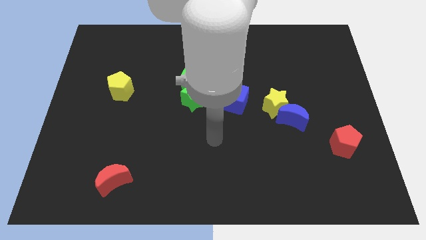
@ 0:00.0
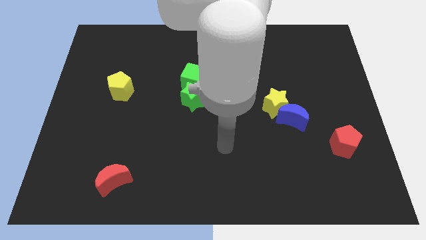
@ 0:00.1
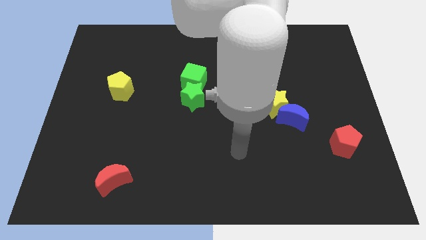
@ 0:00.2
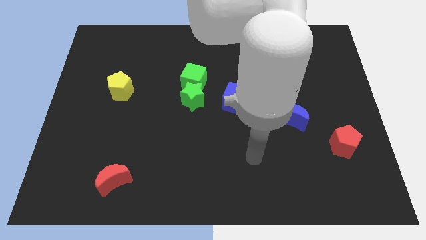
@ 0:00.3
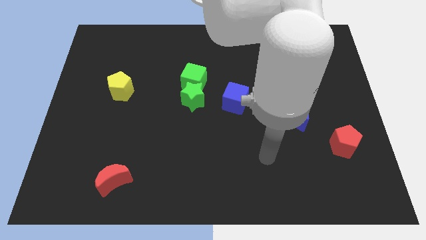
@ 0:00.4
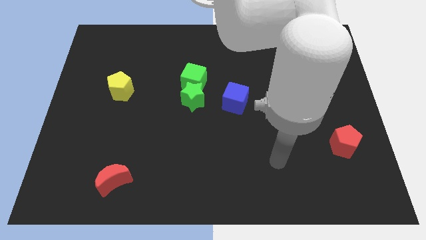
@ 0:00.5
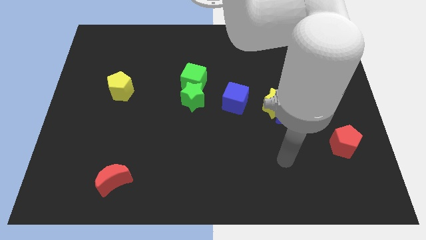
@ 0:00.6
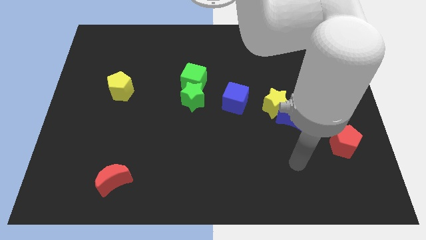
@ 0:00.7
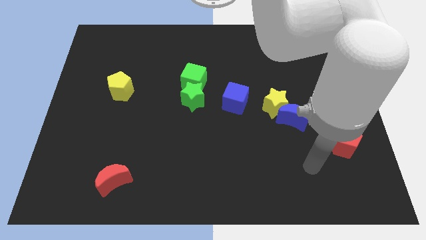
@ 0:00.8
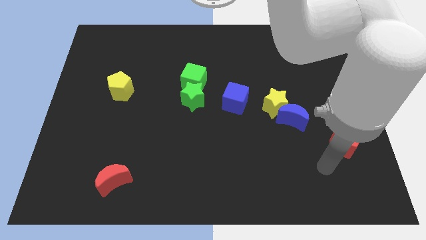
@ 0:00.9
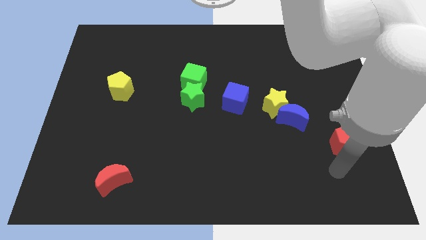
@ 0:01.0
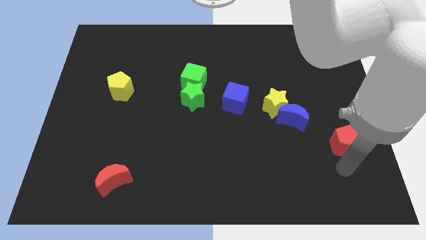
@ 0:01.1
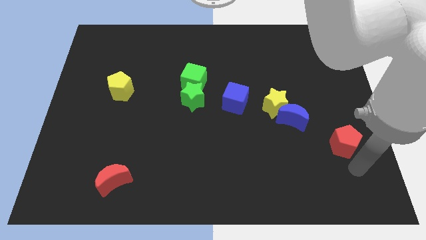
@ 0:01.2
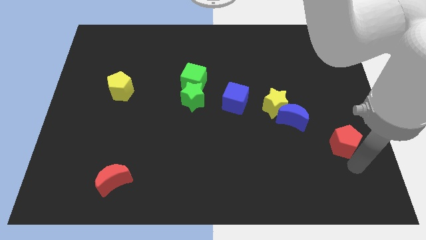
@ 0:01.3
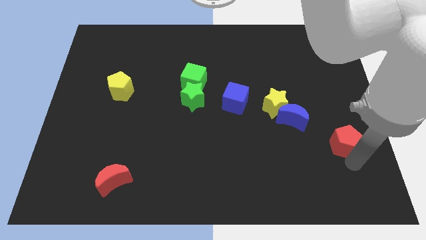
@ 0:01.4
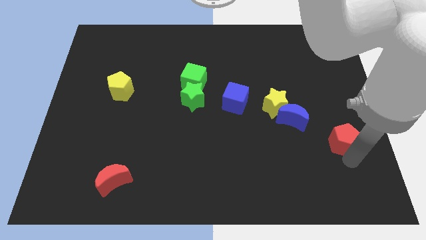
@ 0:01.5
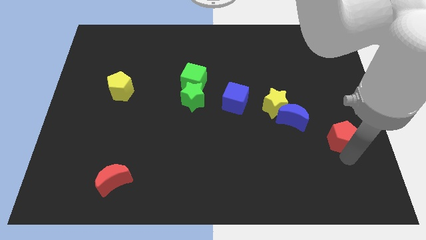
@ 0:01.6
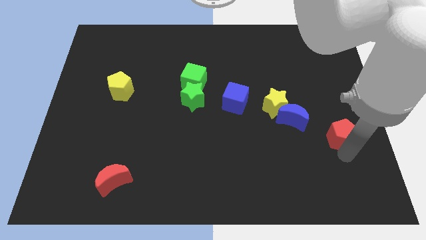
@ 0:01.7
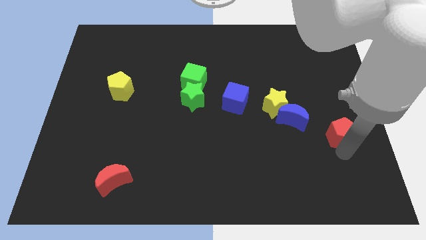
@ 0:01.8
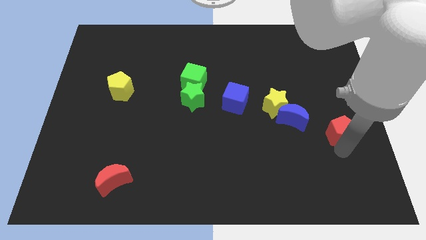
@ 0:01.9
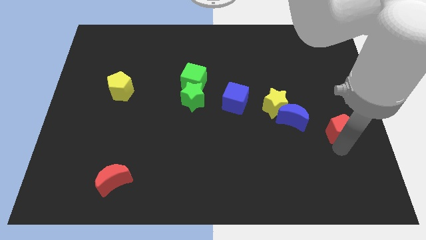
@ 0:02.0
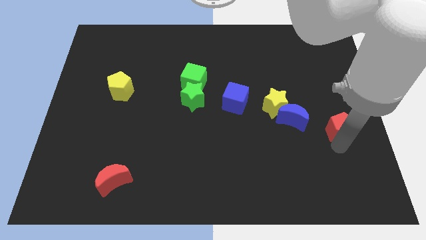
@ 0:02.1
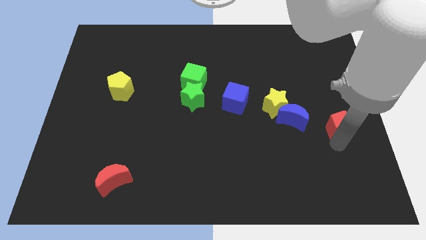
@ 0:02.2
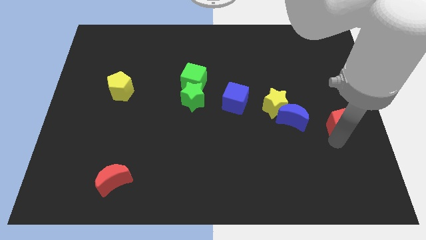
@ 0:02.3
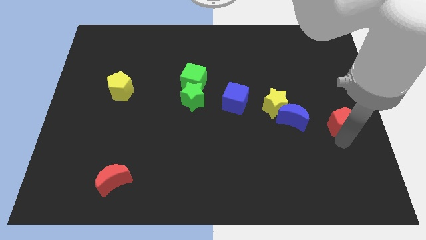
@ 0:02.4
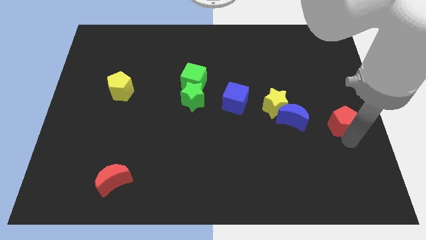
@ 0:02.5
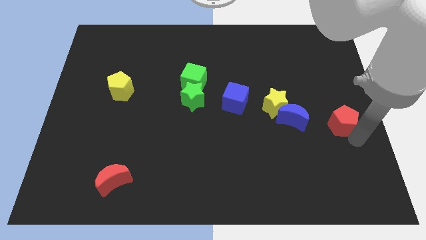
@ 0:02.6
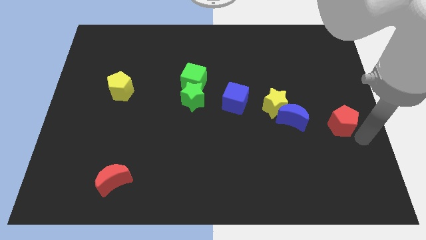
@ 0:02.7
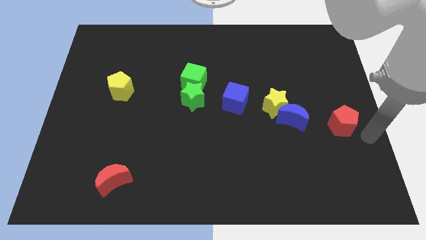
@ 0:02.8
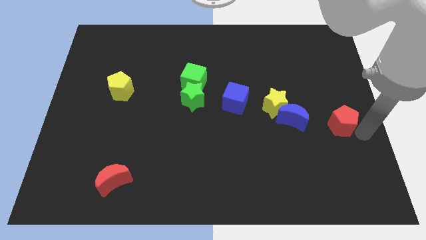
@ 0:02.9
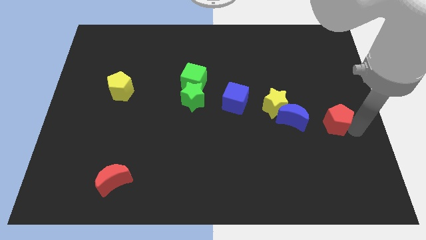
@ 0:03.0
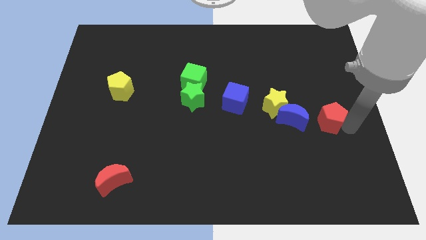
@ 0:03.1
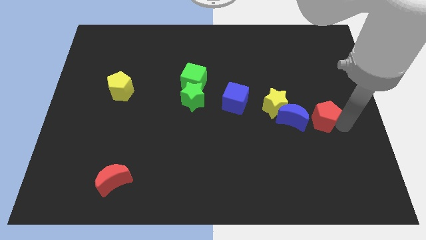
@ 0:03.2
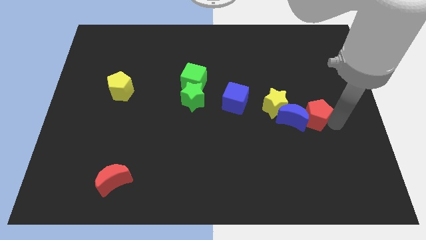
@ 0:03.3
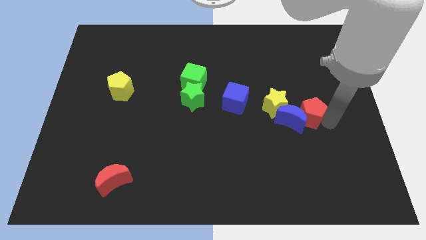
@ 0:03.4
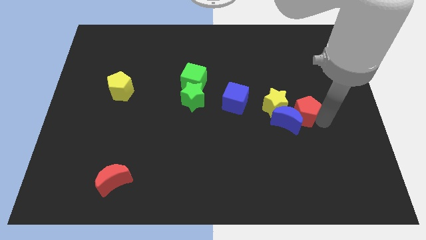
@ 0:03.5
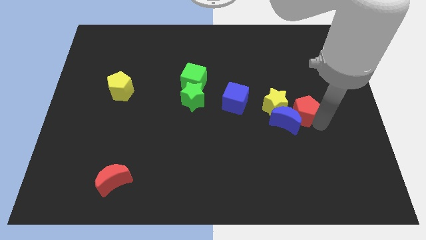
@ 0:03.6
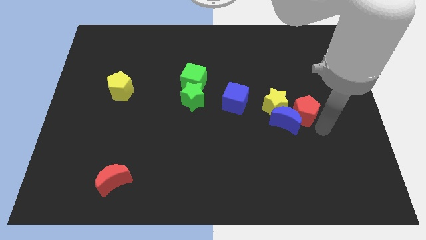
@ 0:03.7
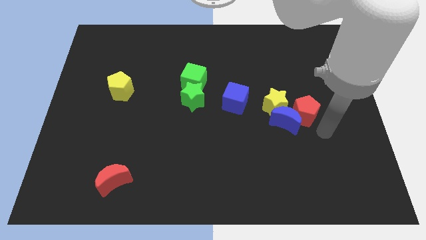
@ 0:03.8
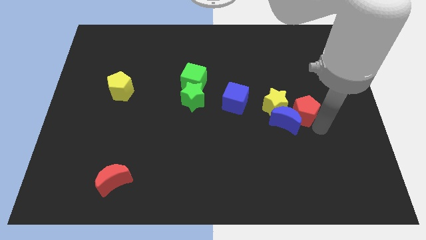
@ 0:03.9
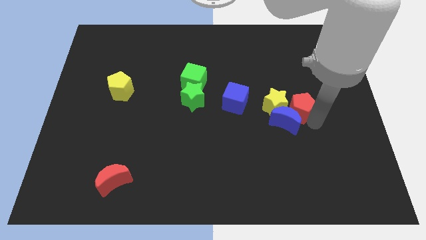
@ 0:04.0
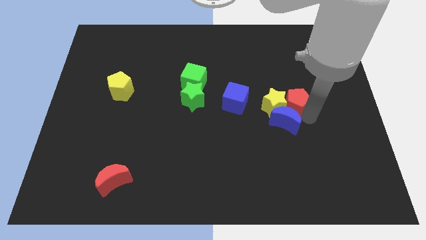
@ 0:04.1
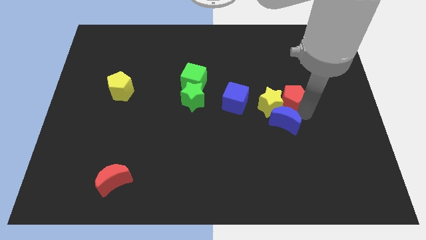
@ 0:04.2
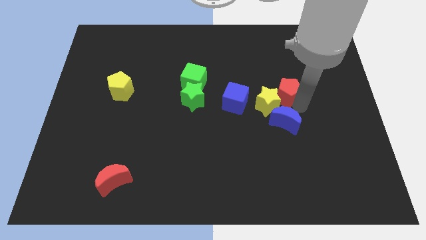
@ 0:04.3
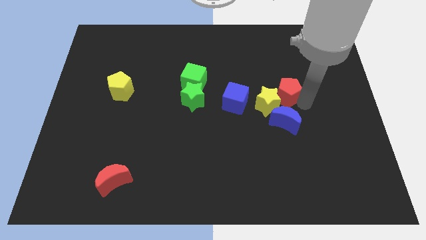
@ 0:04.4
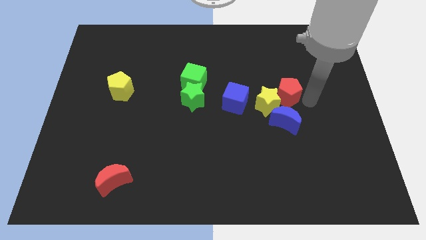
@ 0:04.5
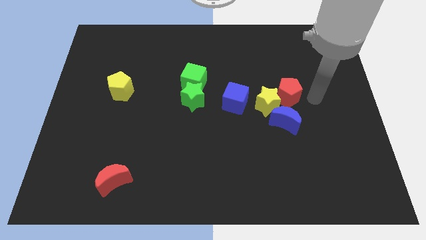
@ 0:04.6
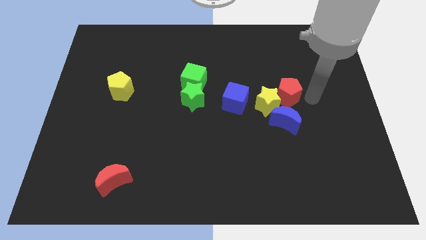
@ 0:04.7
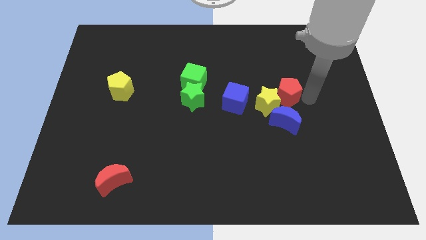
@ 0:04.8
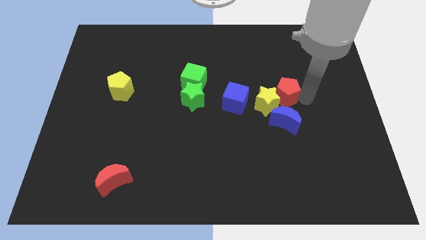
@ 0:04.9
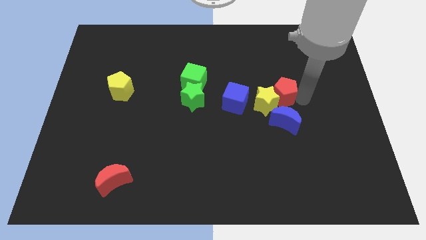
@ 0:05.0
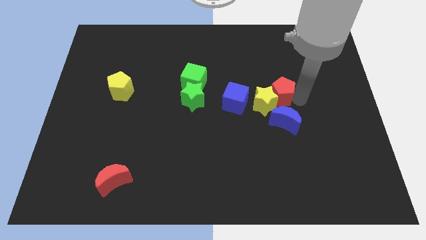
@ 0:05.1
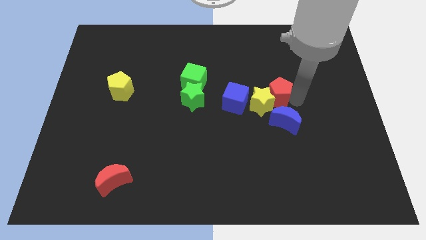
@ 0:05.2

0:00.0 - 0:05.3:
move the red pentagon to the top left of the blue moon

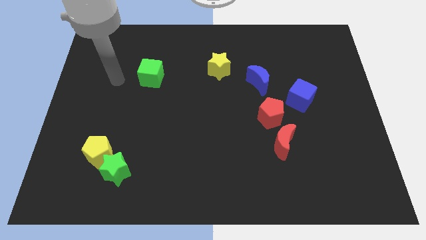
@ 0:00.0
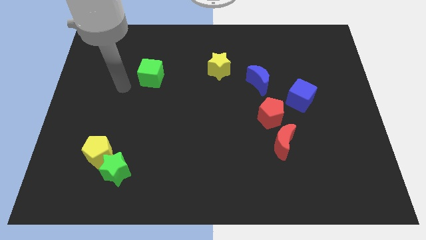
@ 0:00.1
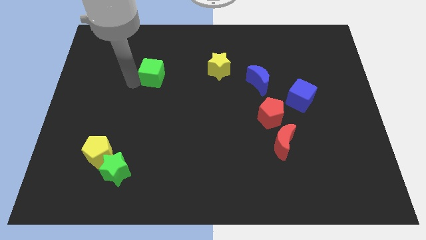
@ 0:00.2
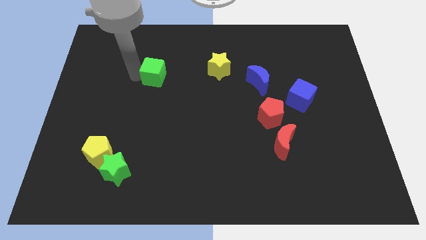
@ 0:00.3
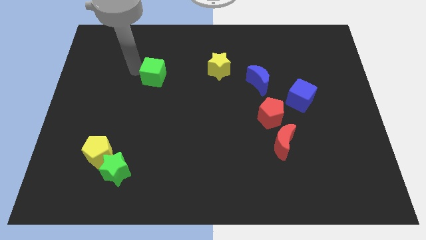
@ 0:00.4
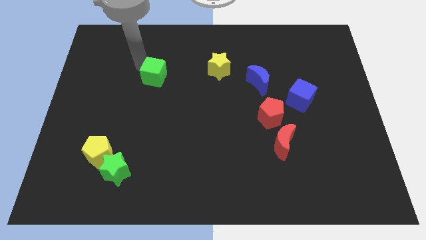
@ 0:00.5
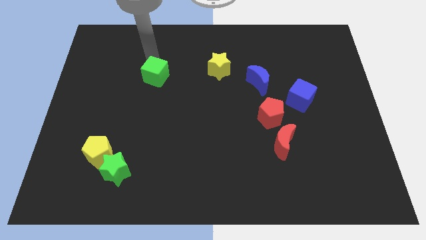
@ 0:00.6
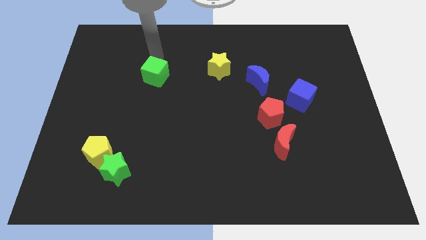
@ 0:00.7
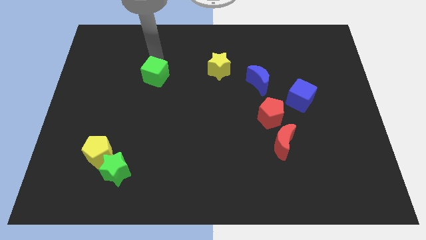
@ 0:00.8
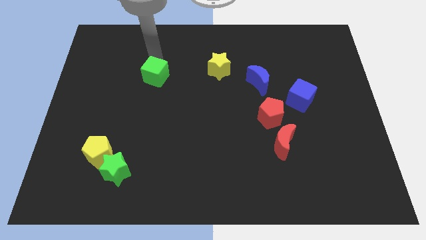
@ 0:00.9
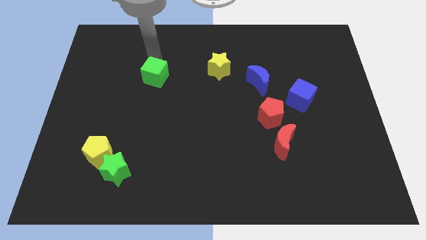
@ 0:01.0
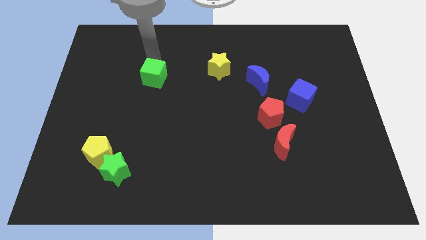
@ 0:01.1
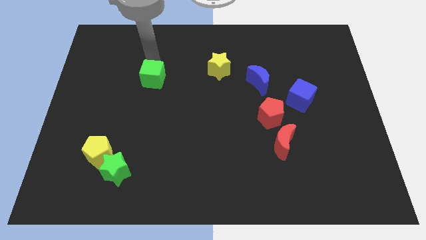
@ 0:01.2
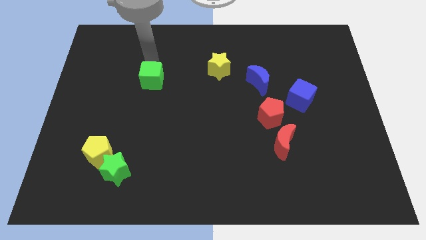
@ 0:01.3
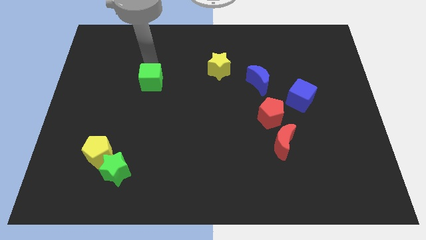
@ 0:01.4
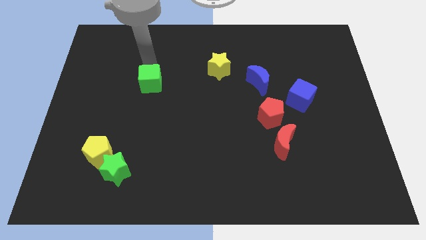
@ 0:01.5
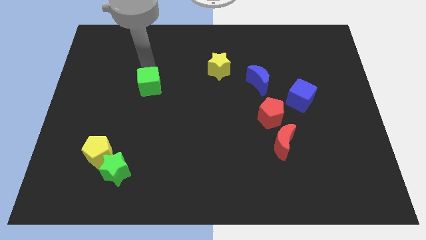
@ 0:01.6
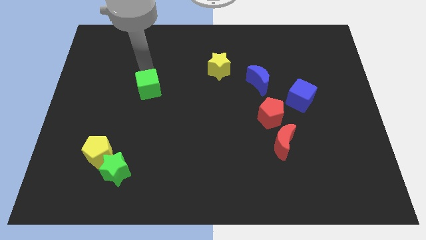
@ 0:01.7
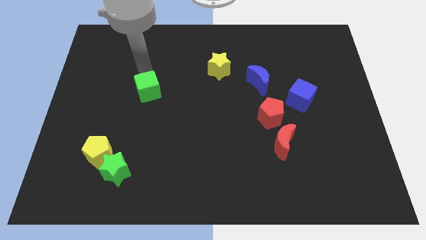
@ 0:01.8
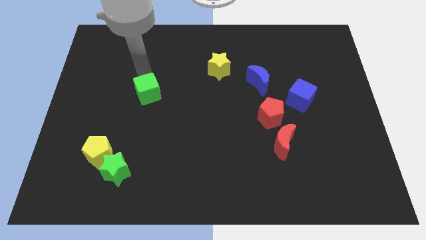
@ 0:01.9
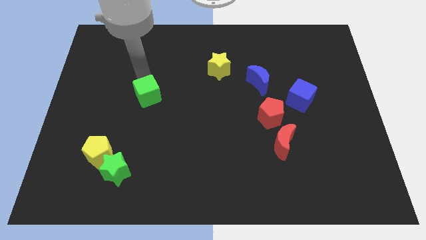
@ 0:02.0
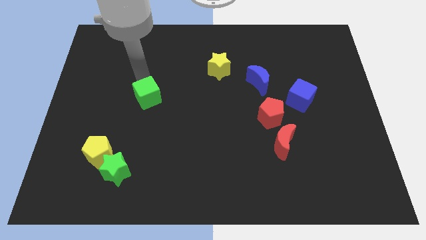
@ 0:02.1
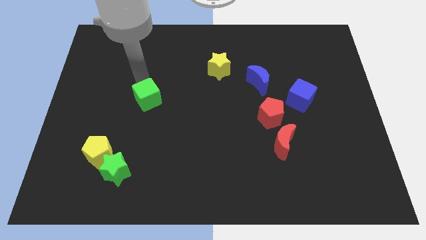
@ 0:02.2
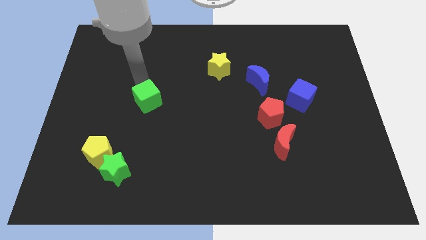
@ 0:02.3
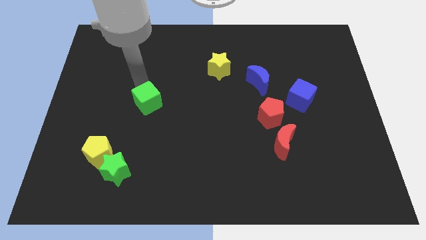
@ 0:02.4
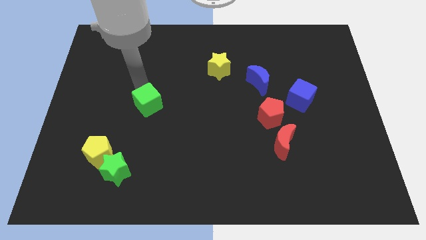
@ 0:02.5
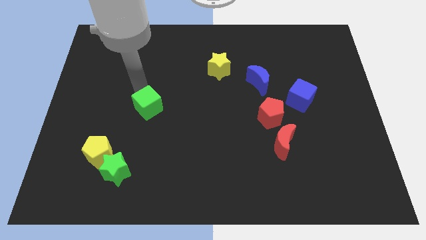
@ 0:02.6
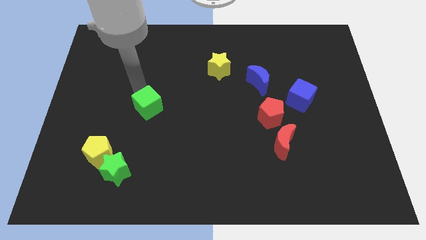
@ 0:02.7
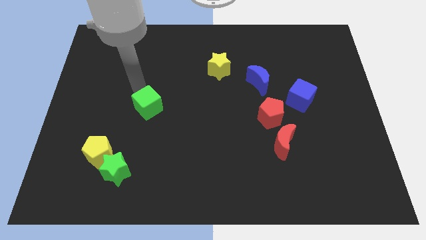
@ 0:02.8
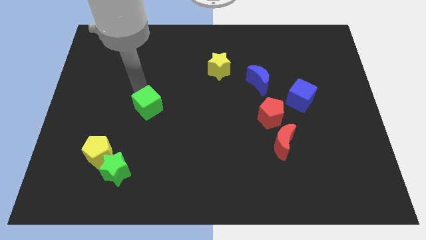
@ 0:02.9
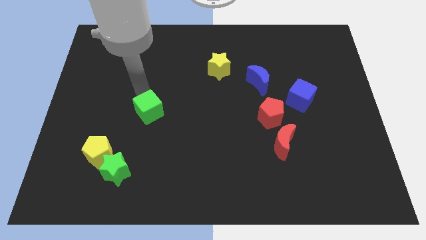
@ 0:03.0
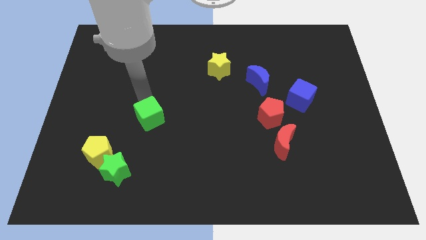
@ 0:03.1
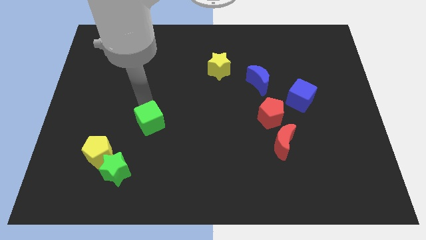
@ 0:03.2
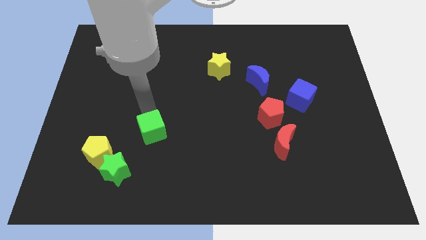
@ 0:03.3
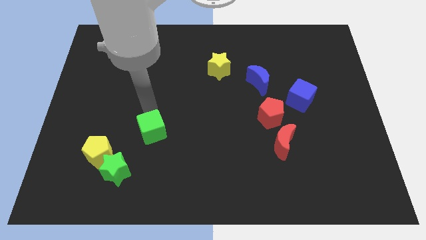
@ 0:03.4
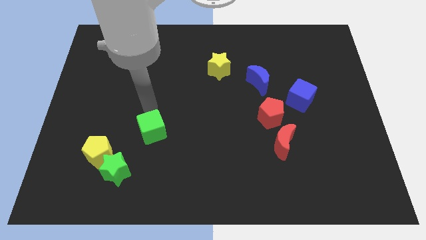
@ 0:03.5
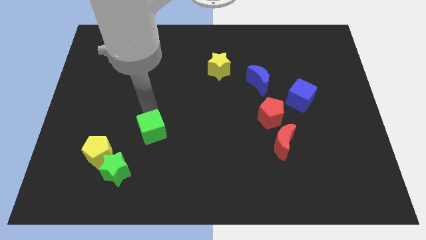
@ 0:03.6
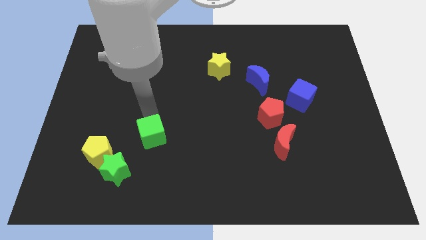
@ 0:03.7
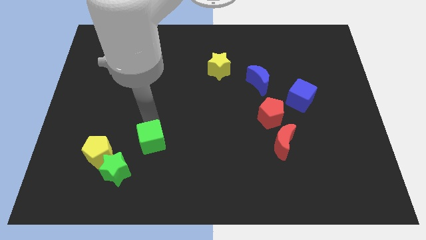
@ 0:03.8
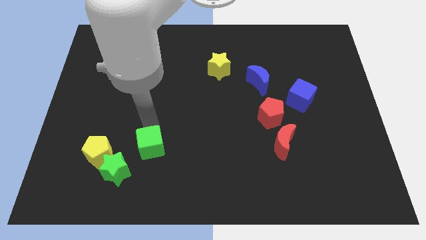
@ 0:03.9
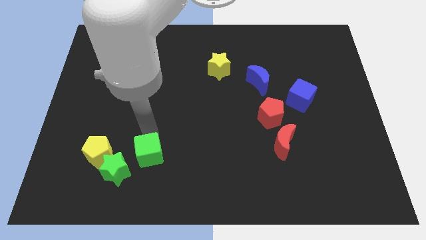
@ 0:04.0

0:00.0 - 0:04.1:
put the green cube to the right side of the green star
